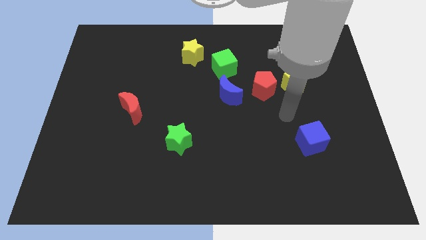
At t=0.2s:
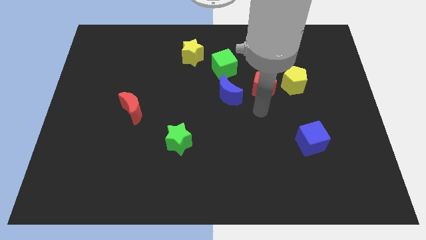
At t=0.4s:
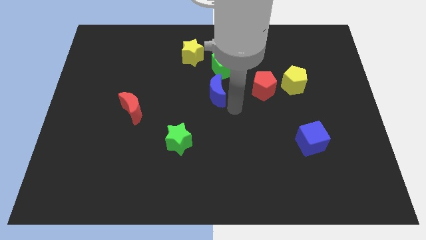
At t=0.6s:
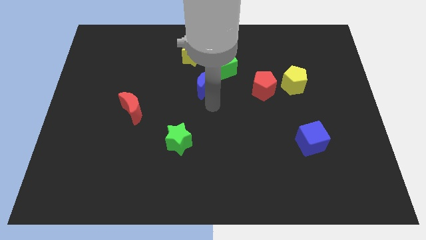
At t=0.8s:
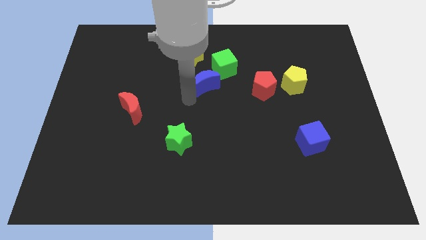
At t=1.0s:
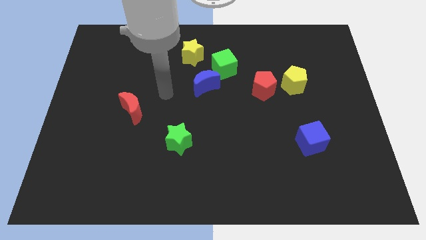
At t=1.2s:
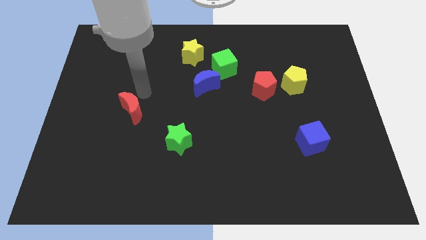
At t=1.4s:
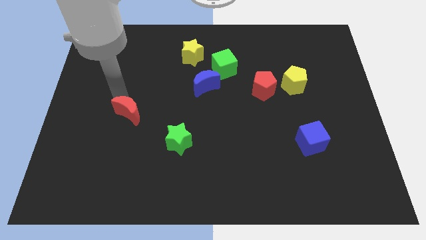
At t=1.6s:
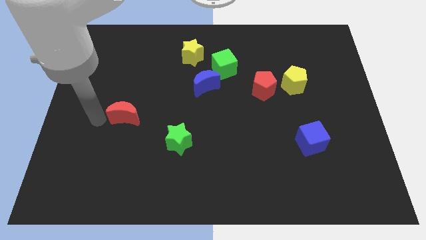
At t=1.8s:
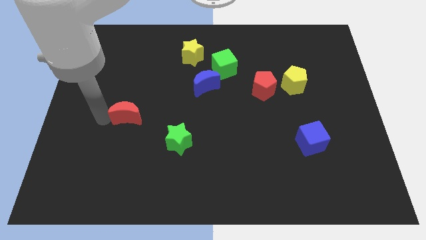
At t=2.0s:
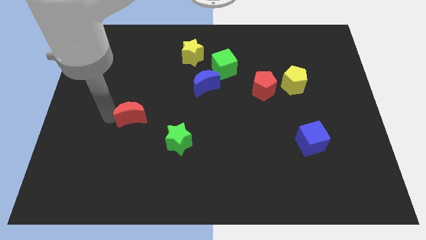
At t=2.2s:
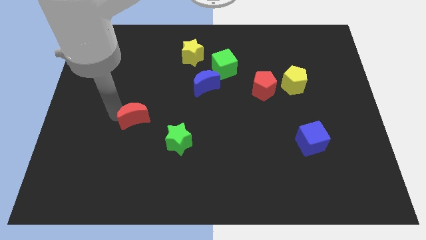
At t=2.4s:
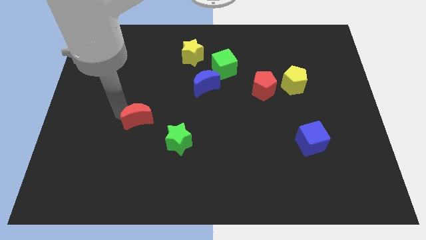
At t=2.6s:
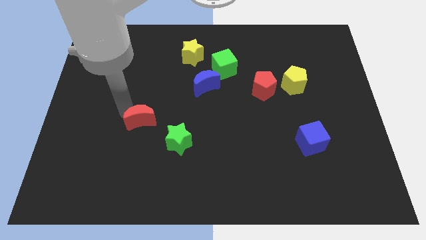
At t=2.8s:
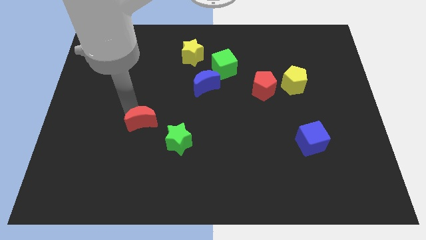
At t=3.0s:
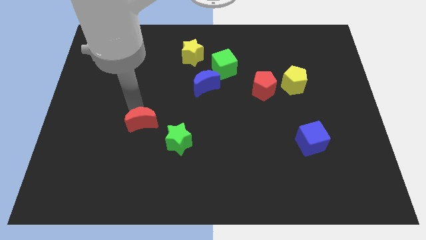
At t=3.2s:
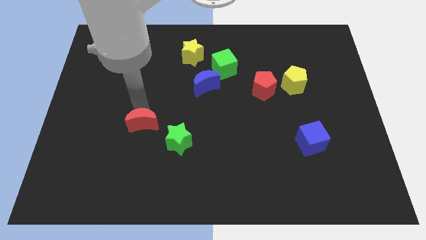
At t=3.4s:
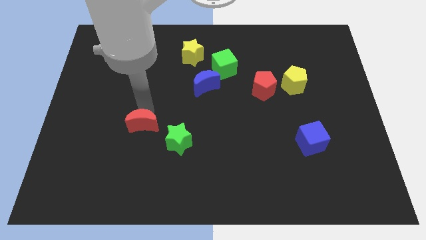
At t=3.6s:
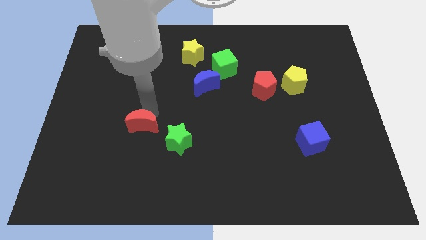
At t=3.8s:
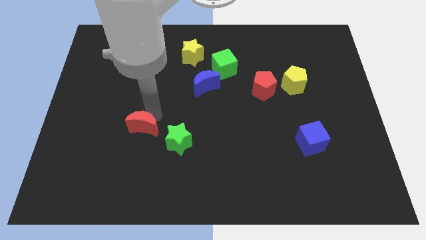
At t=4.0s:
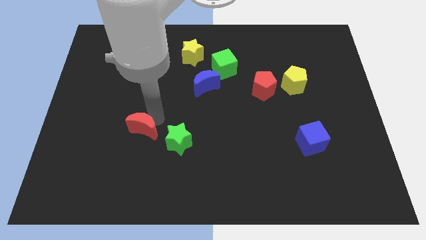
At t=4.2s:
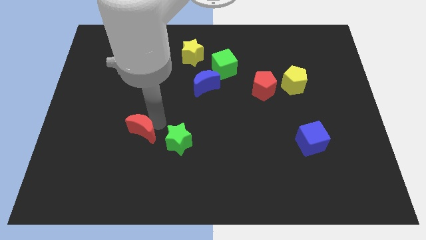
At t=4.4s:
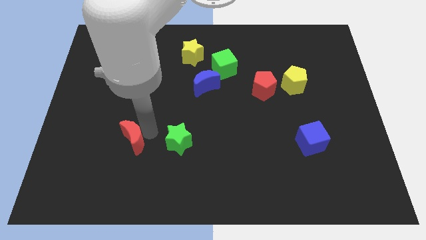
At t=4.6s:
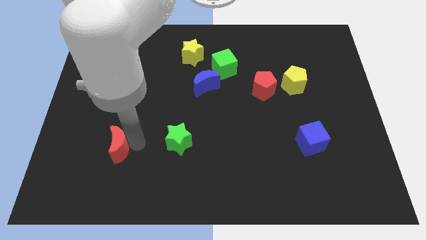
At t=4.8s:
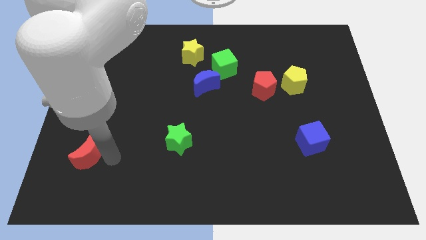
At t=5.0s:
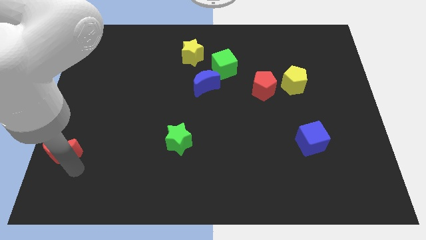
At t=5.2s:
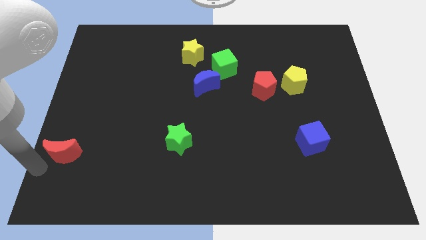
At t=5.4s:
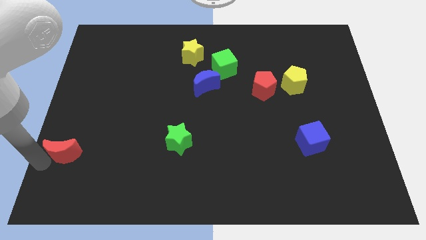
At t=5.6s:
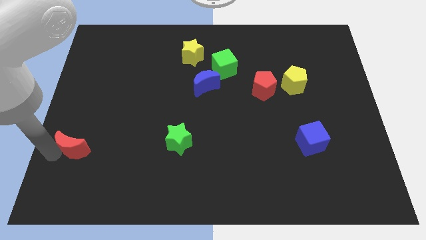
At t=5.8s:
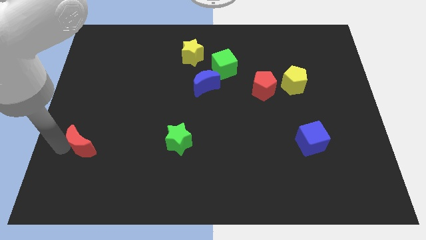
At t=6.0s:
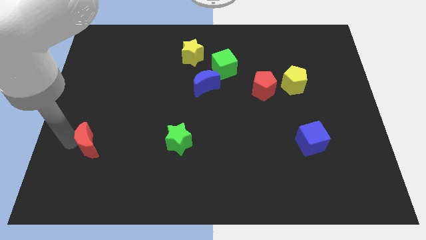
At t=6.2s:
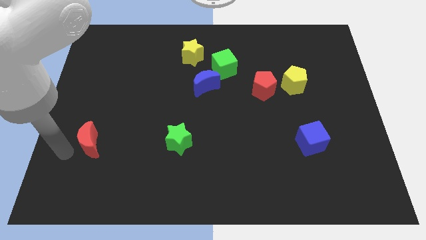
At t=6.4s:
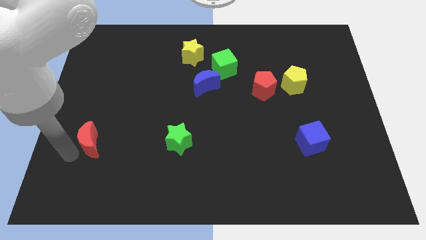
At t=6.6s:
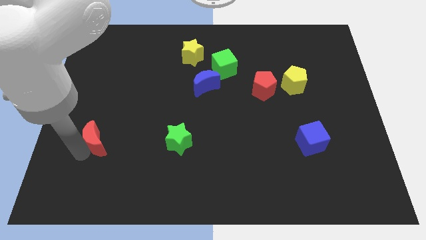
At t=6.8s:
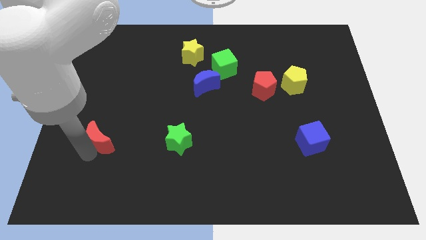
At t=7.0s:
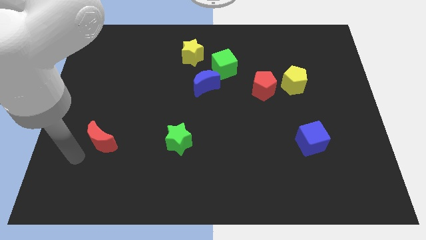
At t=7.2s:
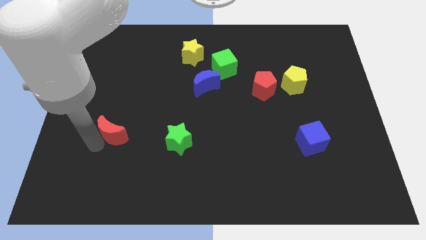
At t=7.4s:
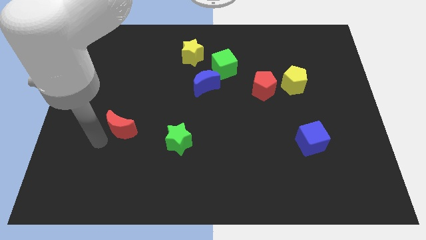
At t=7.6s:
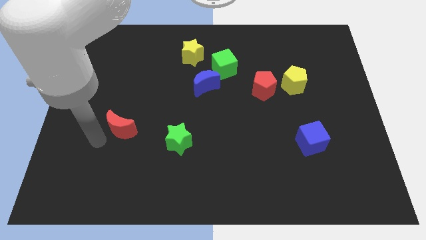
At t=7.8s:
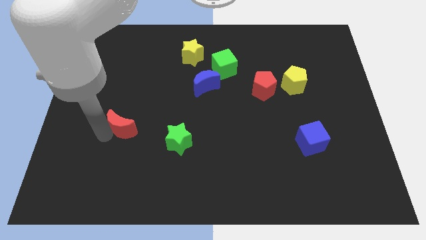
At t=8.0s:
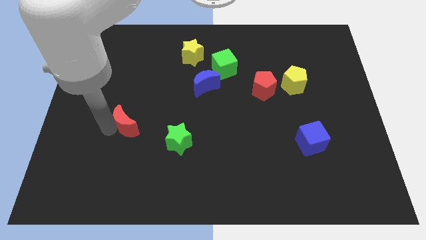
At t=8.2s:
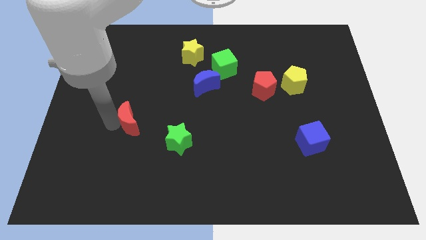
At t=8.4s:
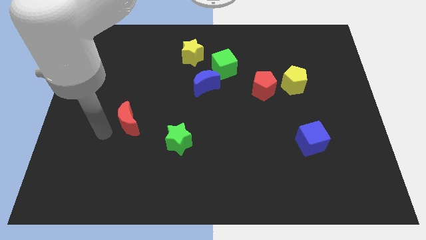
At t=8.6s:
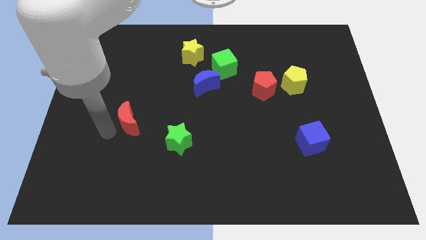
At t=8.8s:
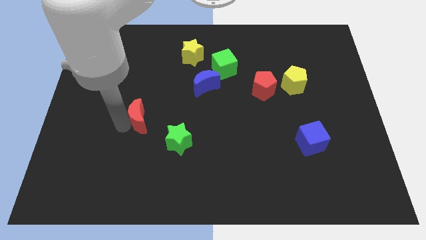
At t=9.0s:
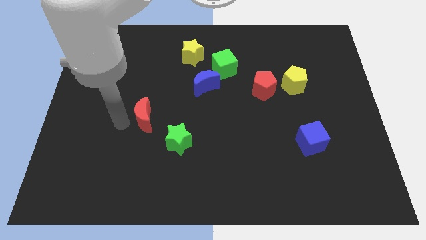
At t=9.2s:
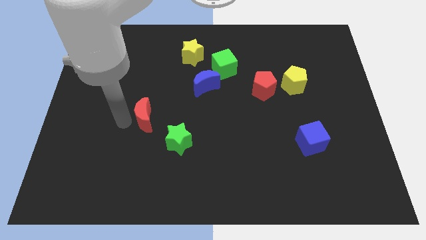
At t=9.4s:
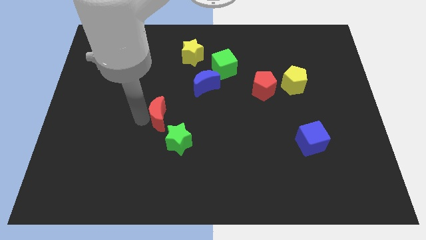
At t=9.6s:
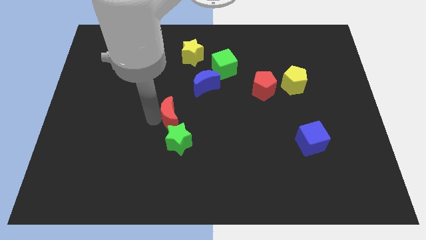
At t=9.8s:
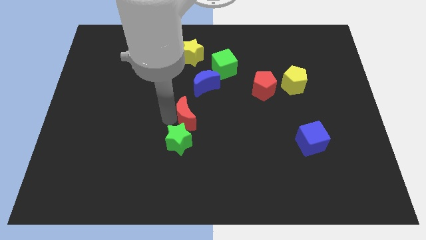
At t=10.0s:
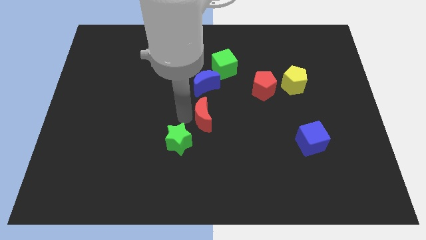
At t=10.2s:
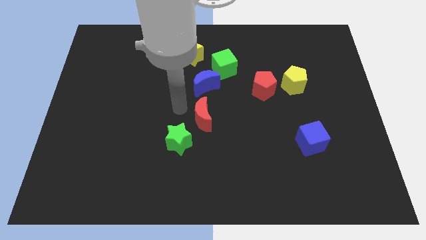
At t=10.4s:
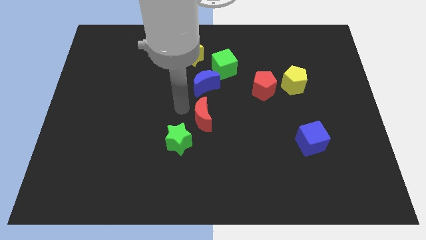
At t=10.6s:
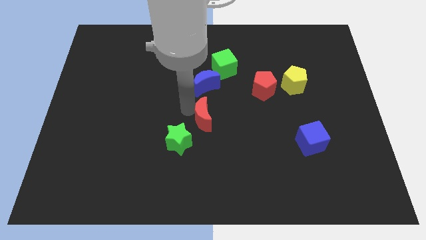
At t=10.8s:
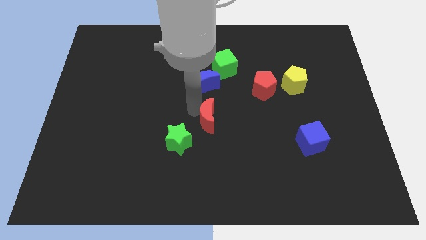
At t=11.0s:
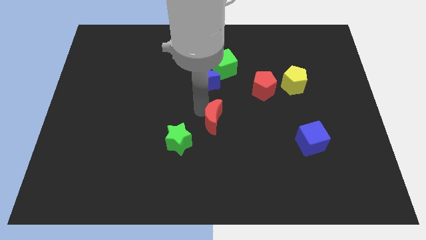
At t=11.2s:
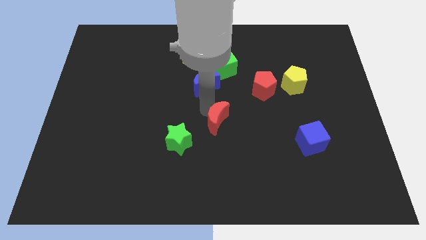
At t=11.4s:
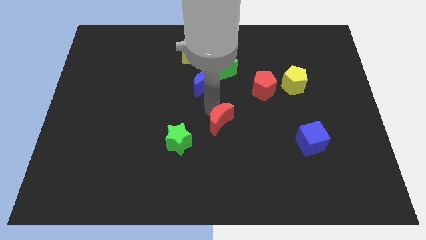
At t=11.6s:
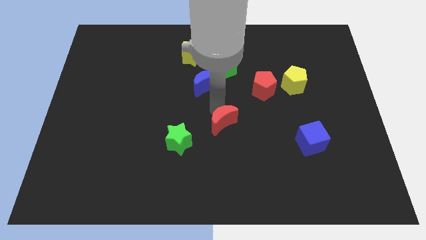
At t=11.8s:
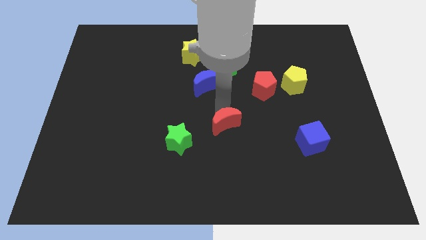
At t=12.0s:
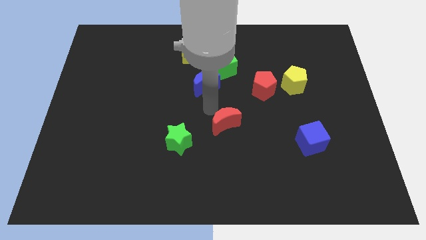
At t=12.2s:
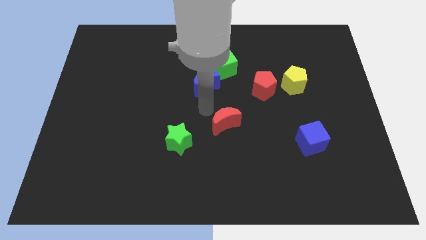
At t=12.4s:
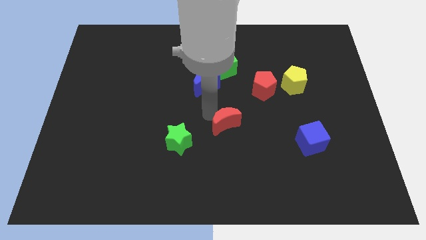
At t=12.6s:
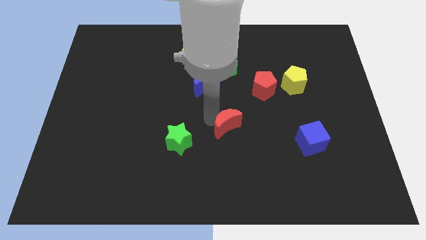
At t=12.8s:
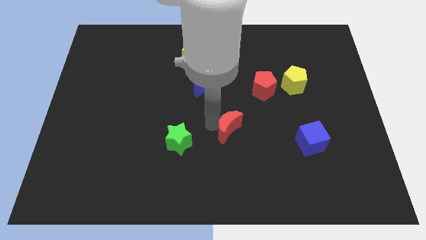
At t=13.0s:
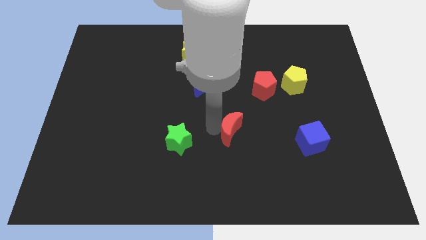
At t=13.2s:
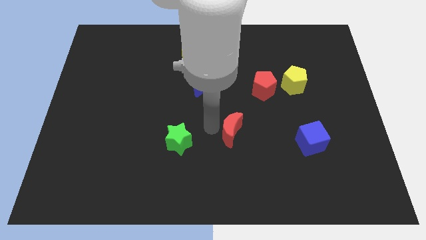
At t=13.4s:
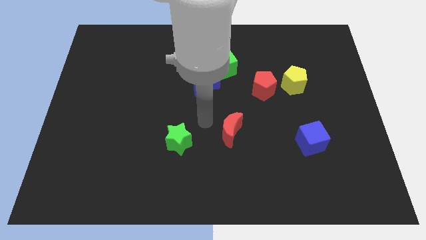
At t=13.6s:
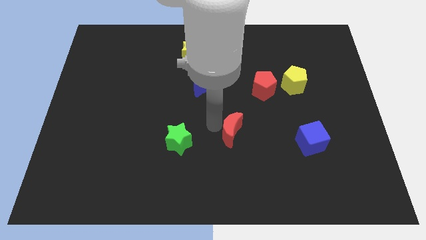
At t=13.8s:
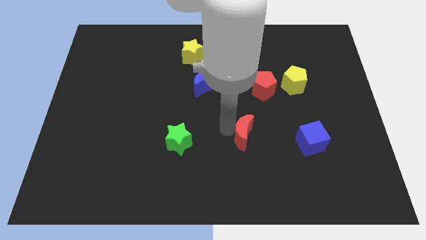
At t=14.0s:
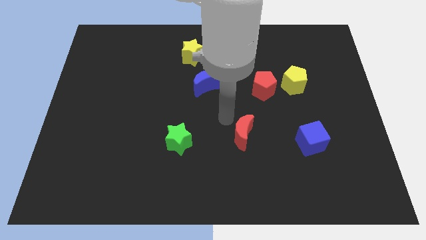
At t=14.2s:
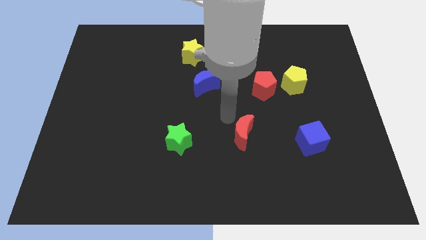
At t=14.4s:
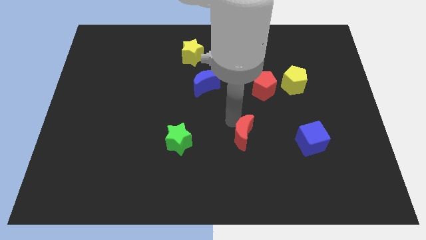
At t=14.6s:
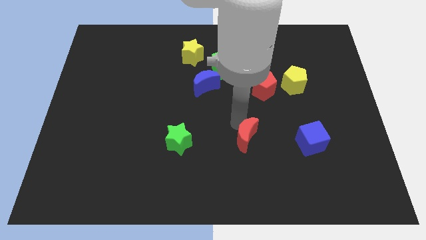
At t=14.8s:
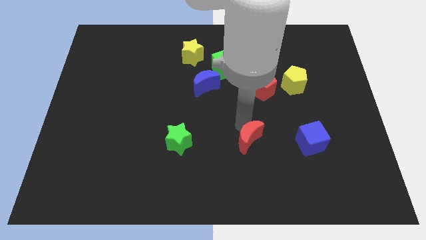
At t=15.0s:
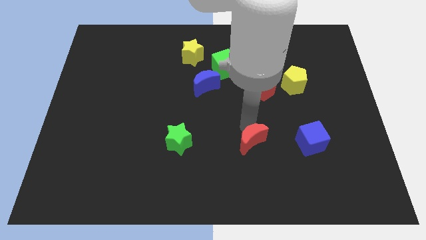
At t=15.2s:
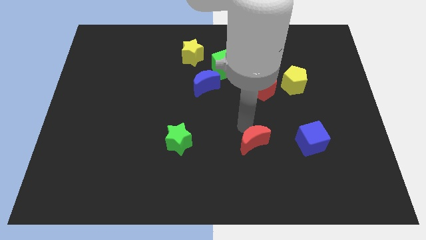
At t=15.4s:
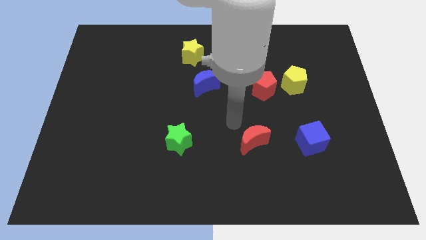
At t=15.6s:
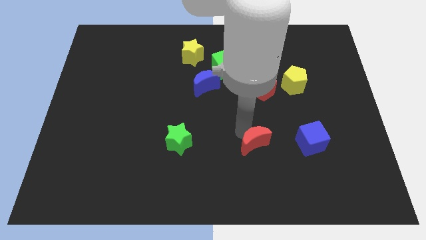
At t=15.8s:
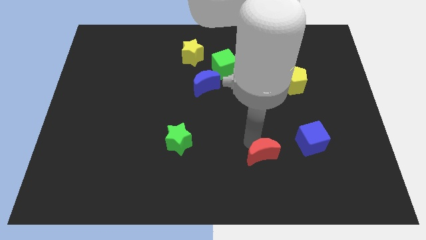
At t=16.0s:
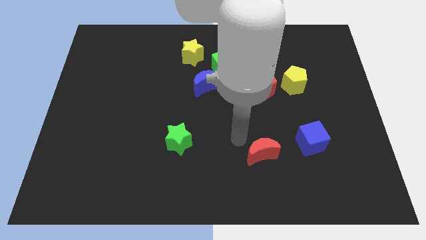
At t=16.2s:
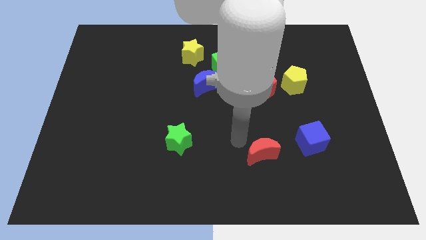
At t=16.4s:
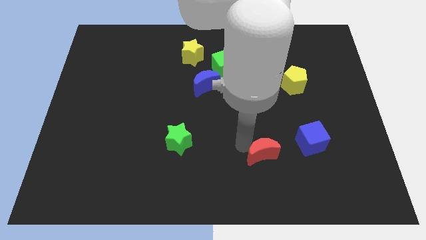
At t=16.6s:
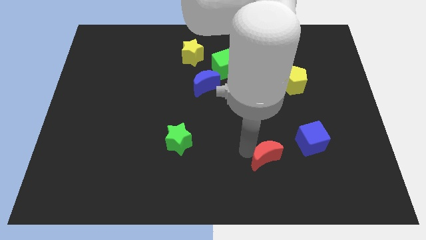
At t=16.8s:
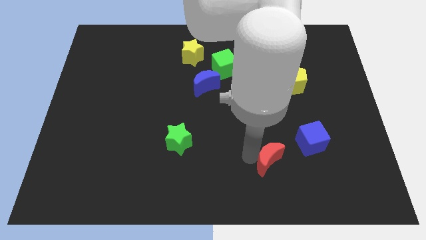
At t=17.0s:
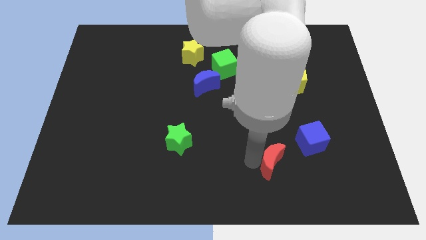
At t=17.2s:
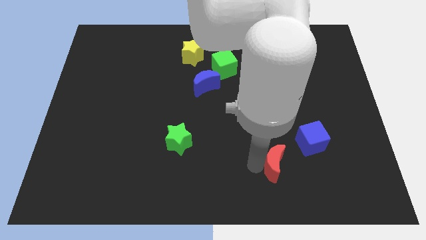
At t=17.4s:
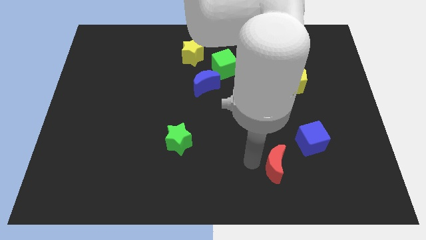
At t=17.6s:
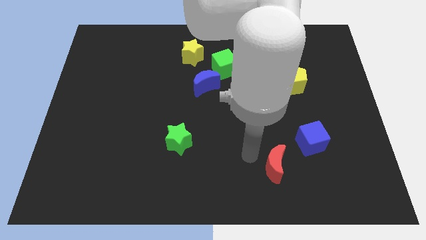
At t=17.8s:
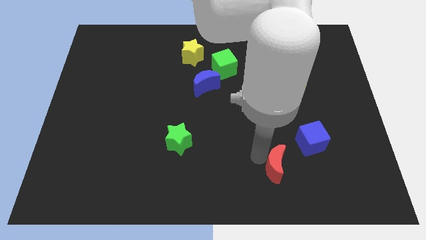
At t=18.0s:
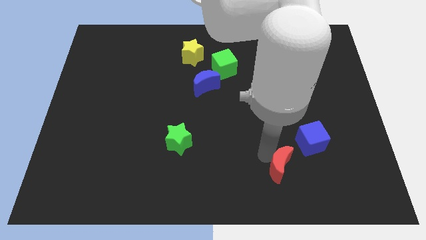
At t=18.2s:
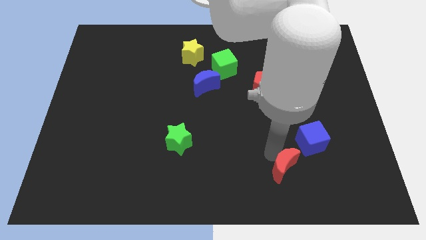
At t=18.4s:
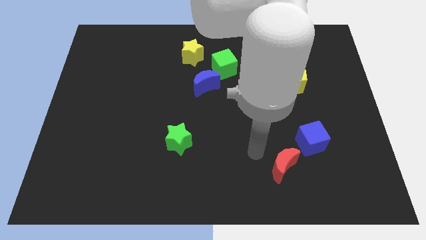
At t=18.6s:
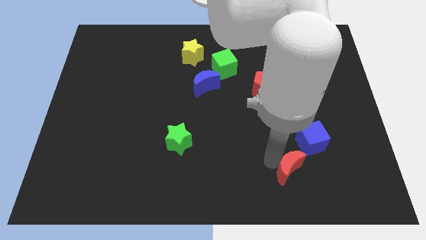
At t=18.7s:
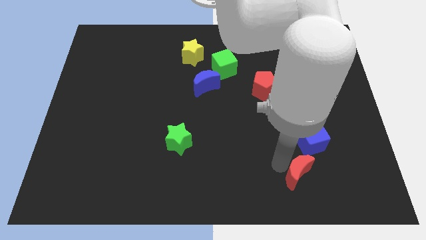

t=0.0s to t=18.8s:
slide the red moon to the bottom side of the blue cube
